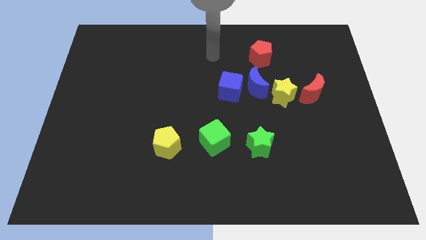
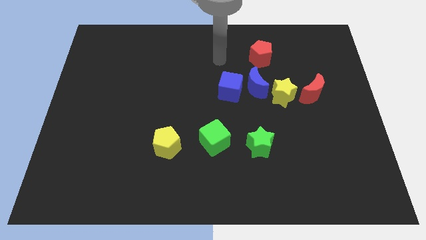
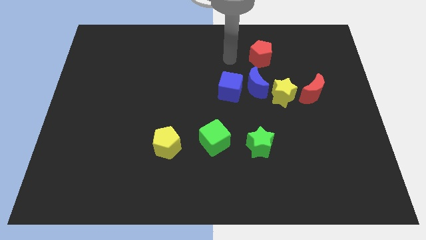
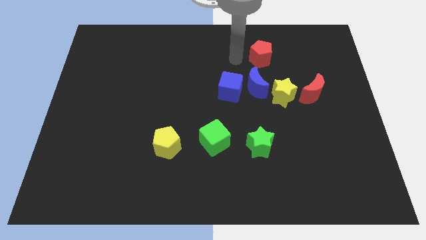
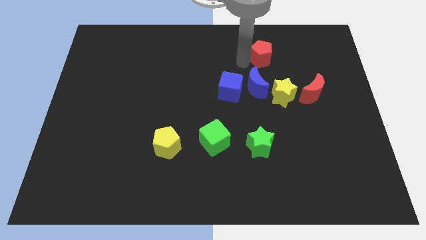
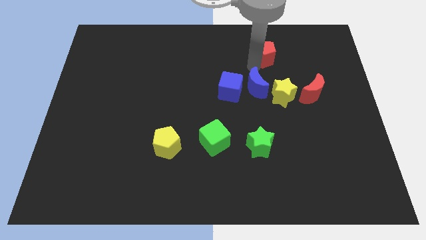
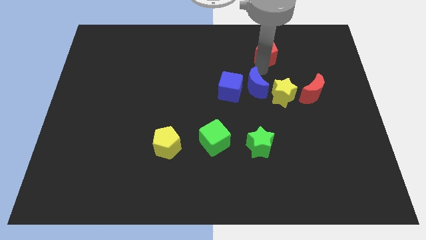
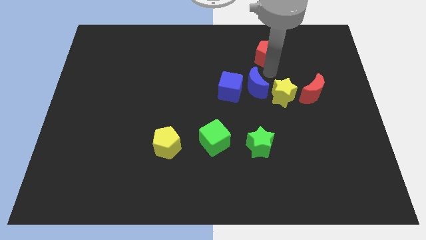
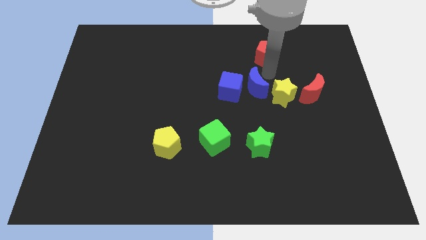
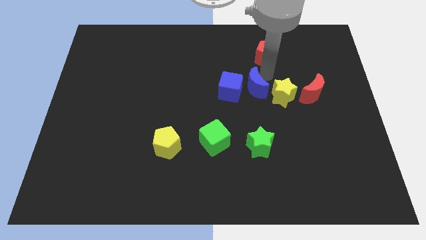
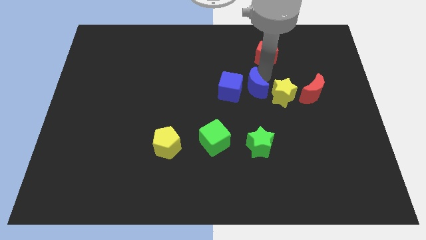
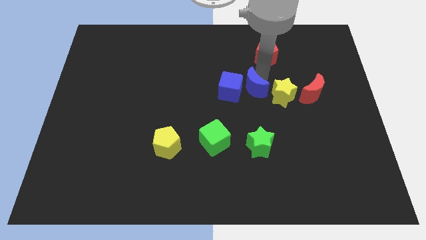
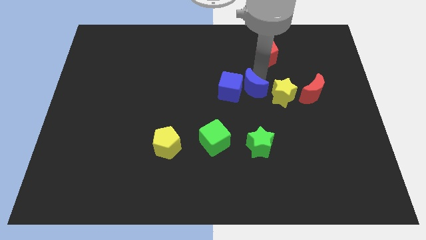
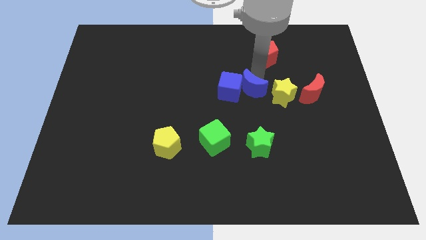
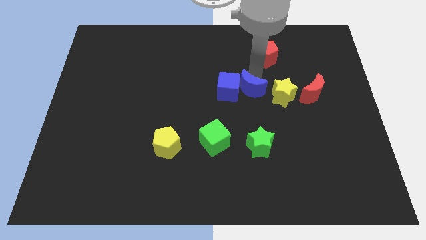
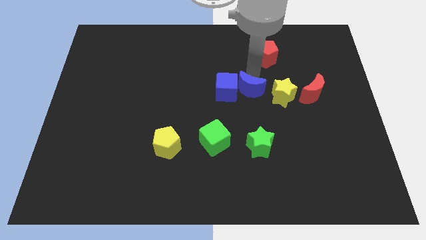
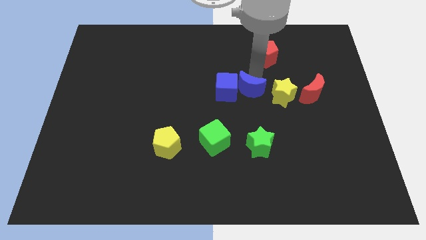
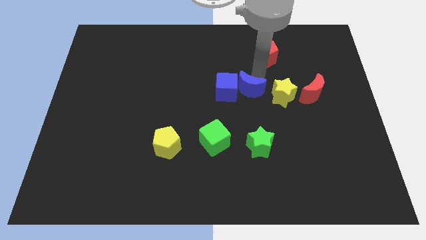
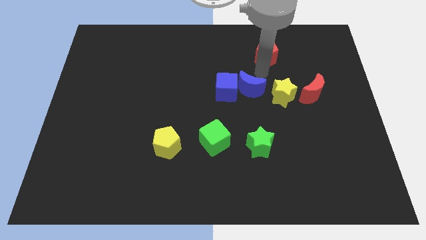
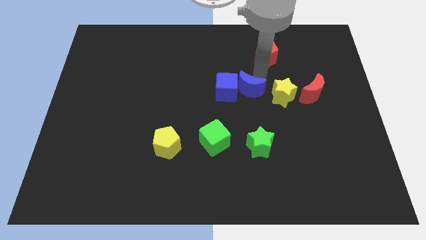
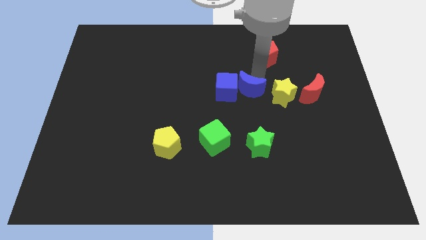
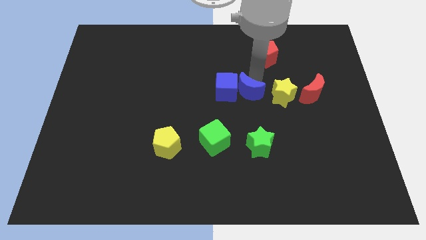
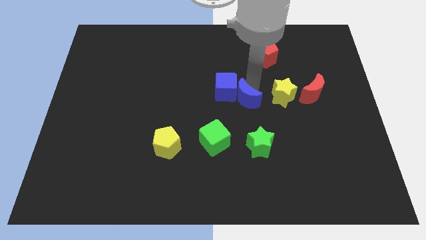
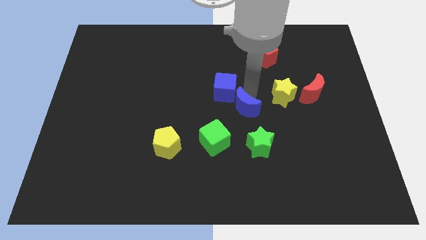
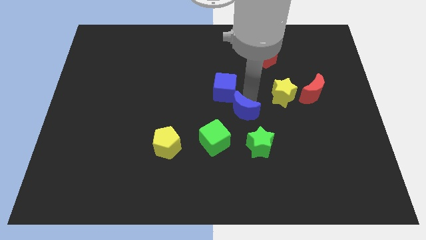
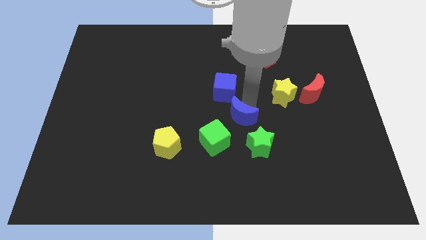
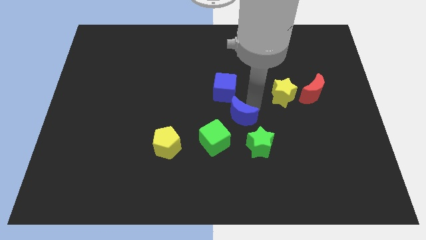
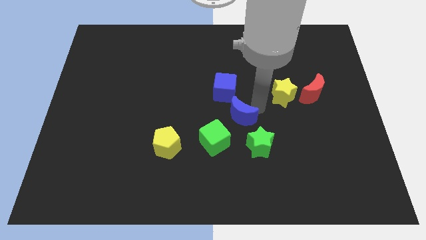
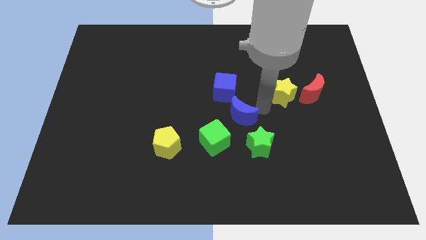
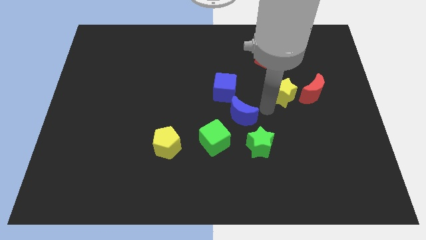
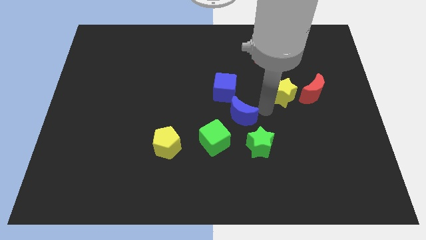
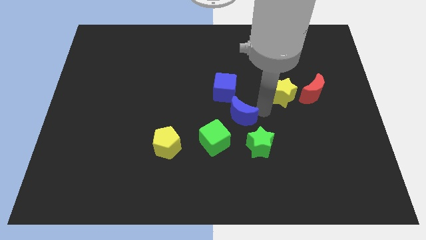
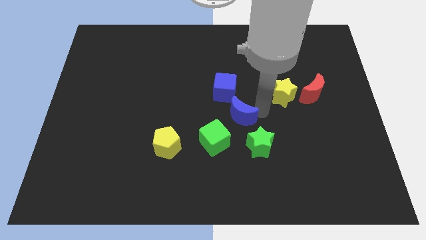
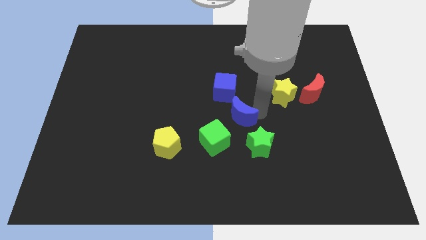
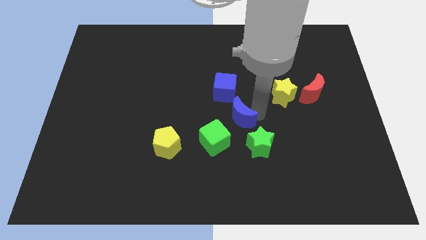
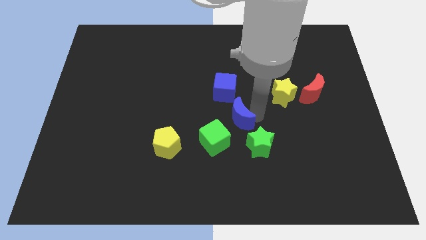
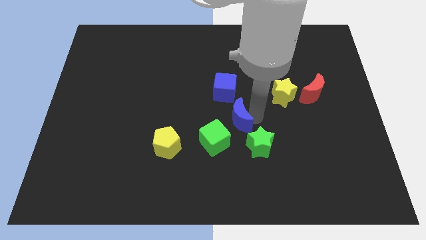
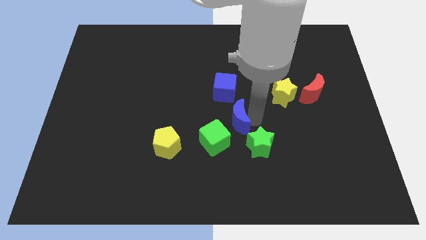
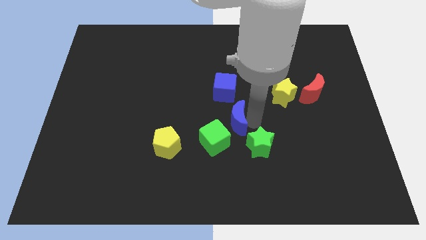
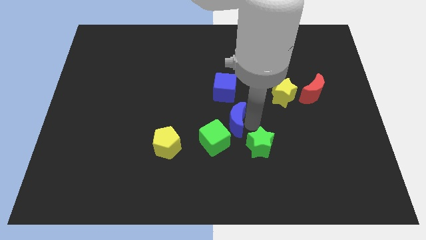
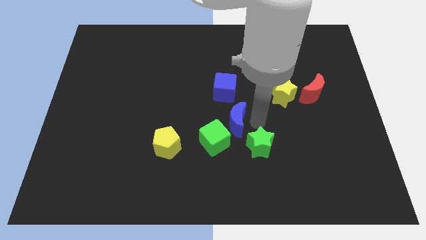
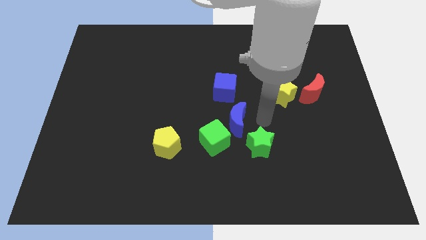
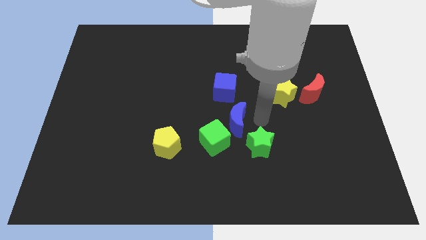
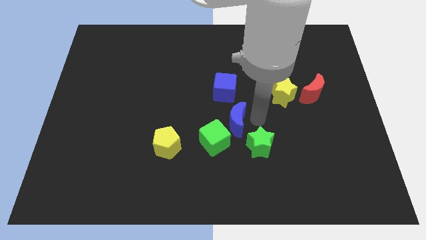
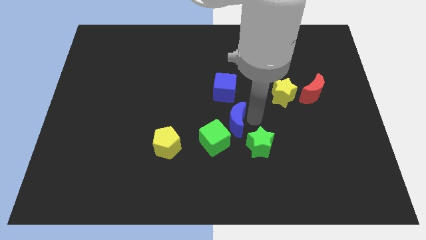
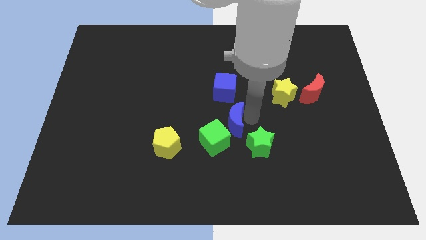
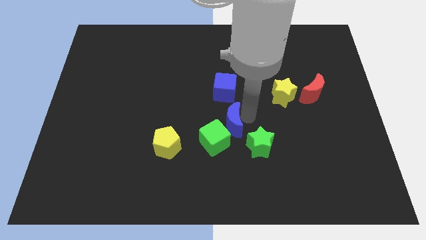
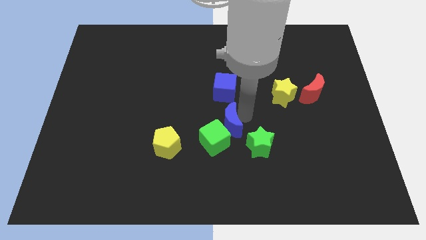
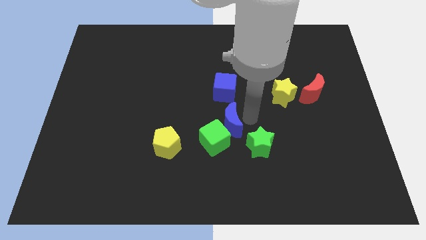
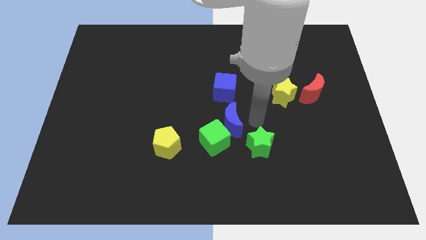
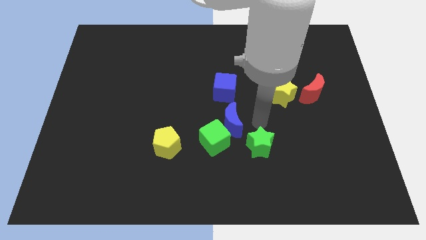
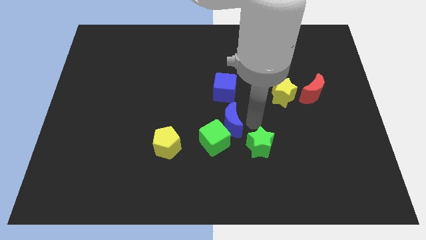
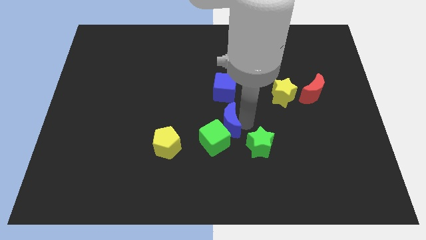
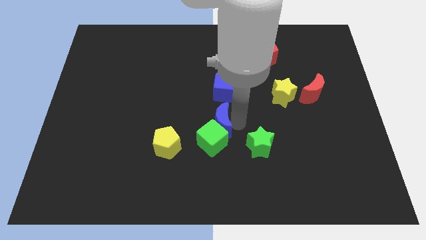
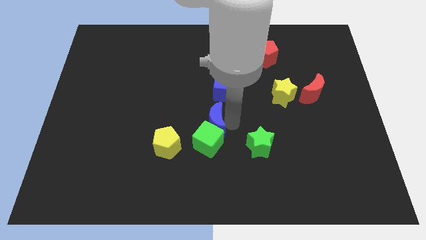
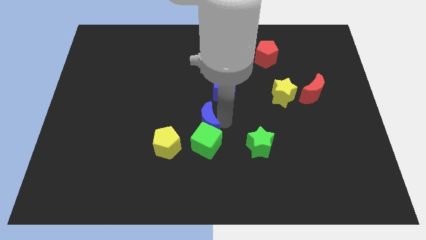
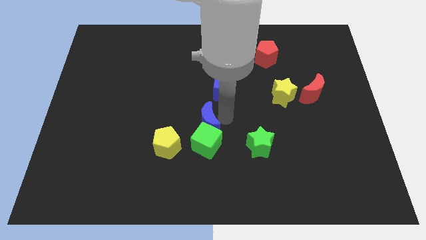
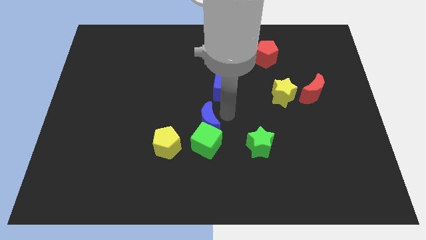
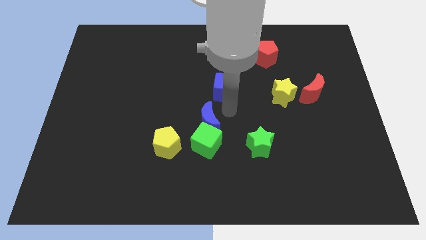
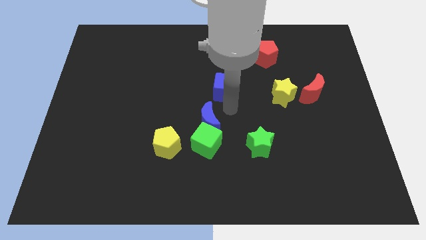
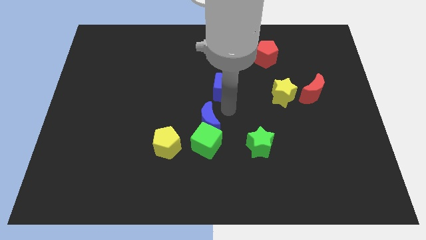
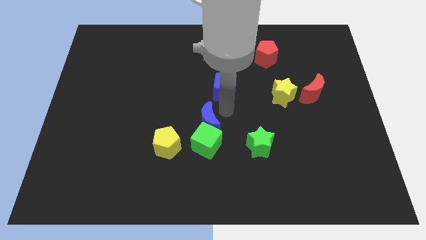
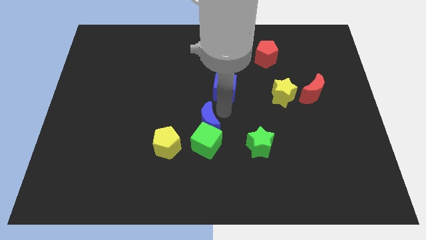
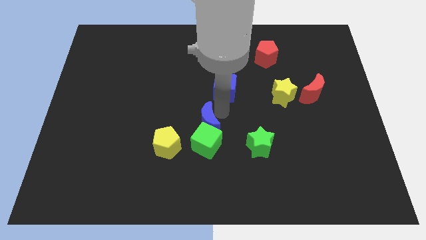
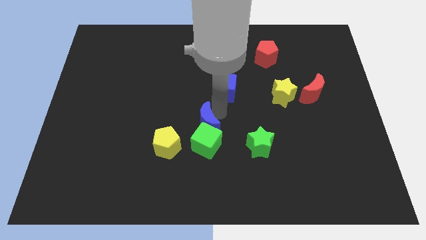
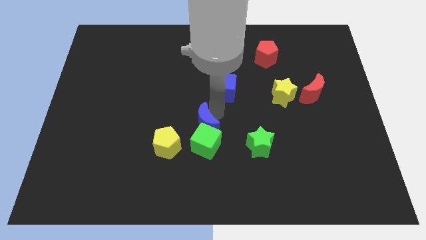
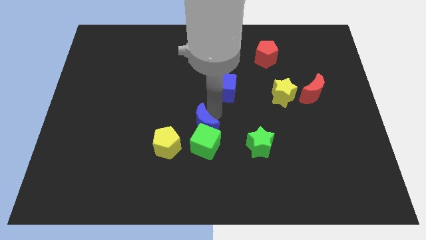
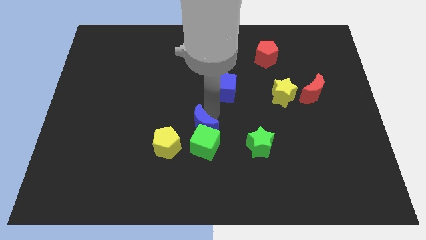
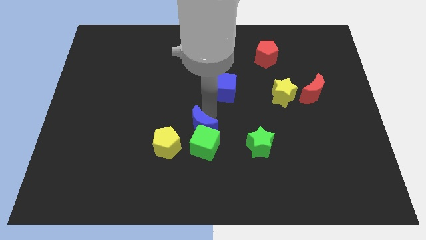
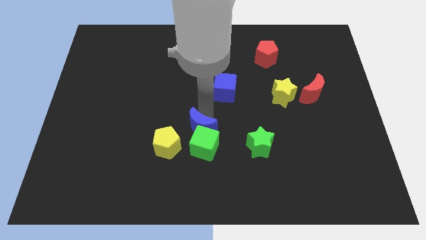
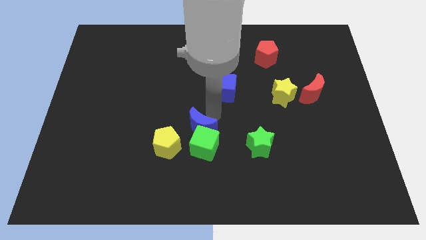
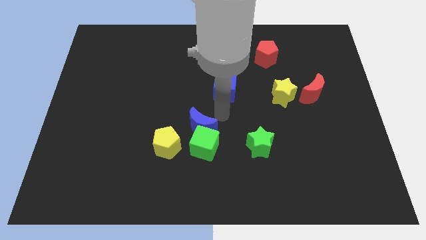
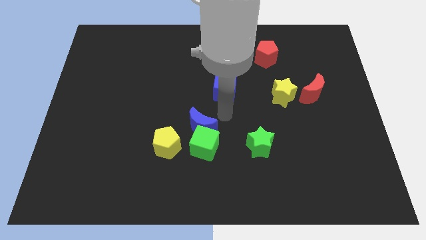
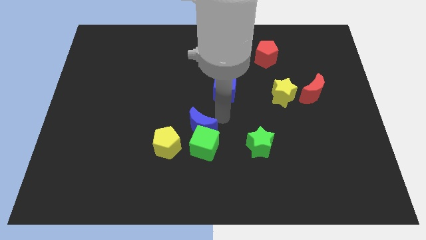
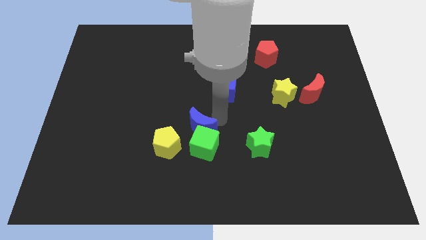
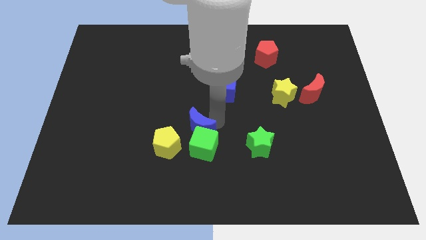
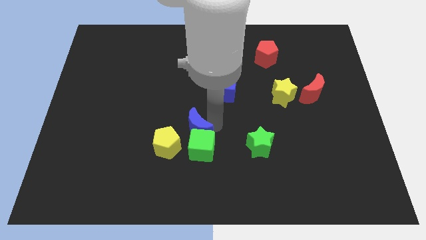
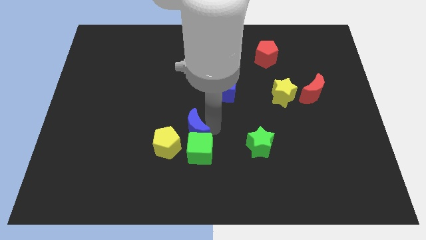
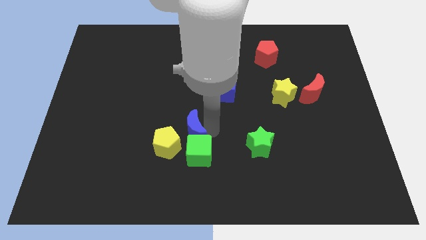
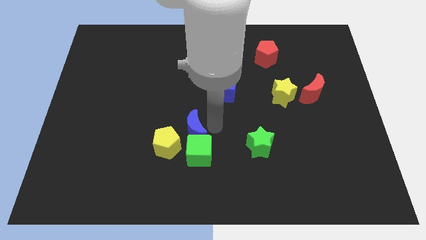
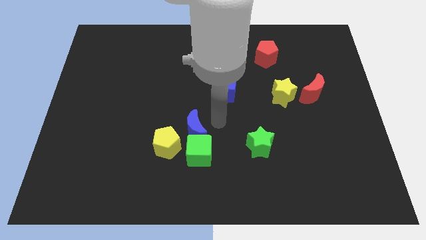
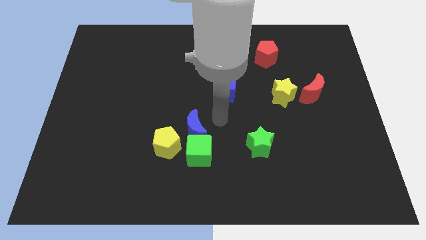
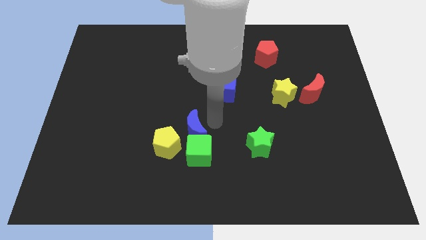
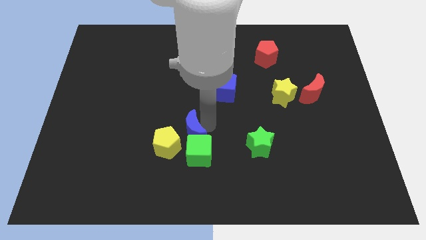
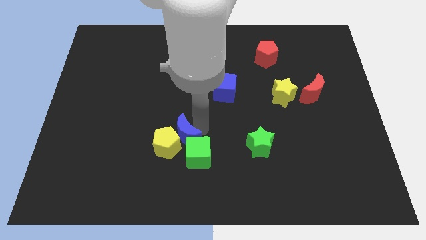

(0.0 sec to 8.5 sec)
move the blue moon next to the yellow pentagon
